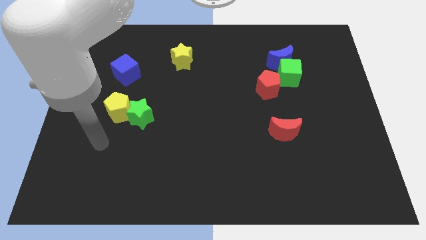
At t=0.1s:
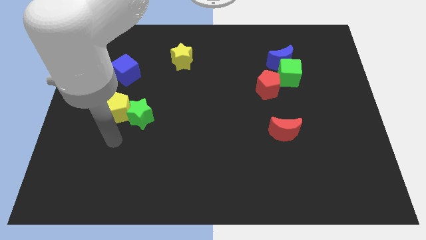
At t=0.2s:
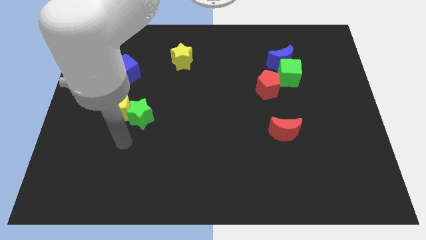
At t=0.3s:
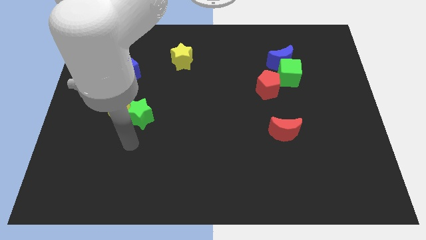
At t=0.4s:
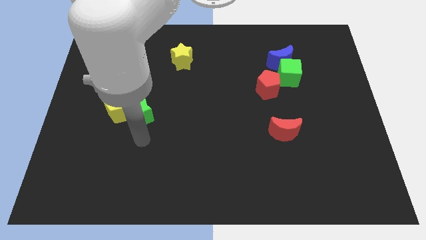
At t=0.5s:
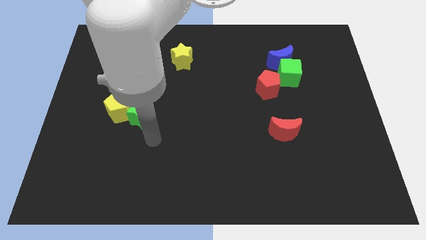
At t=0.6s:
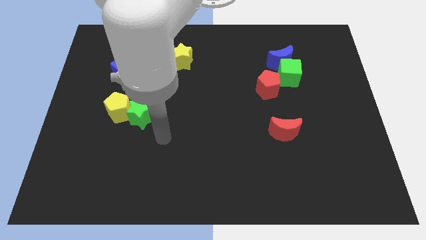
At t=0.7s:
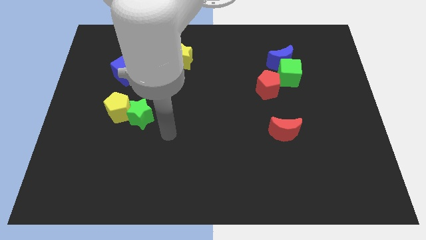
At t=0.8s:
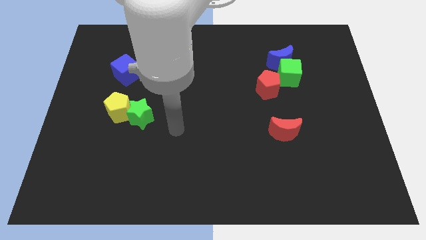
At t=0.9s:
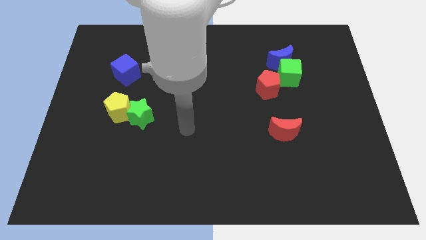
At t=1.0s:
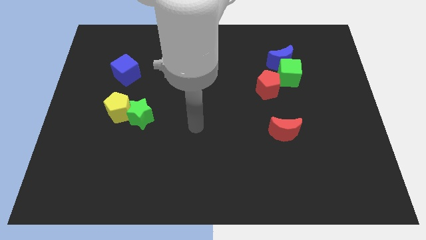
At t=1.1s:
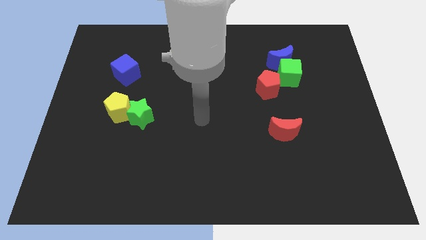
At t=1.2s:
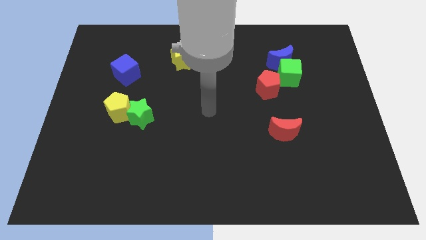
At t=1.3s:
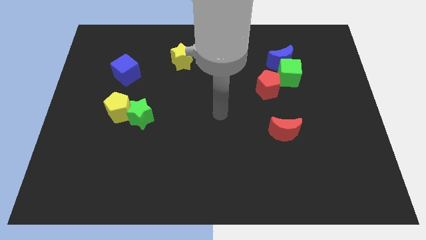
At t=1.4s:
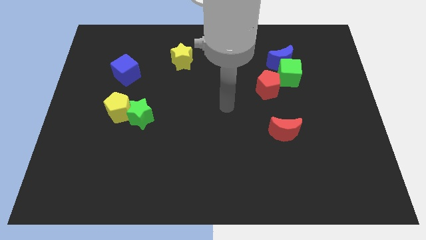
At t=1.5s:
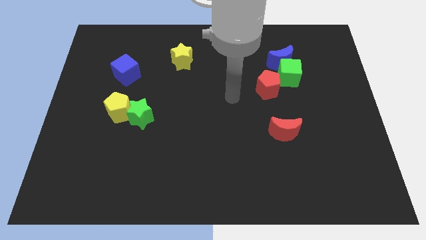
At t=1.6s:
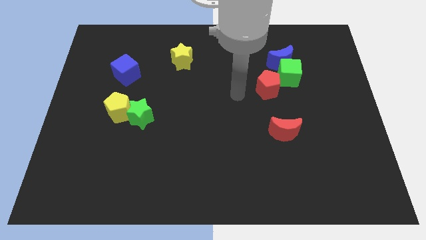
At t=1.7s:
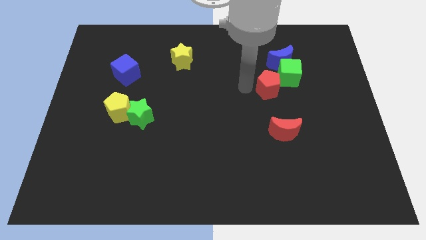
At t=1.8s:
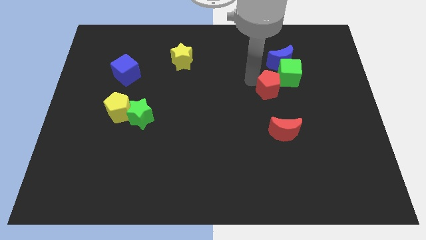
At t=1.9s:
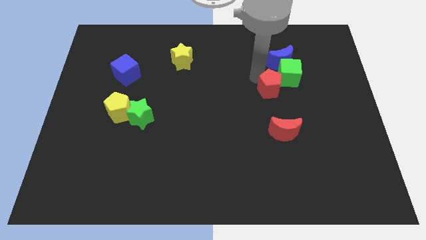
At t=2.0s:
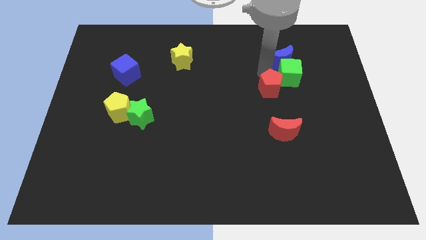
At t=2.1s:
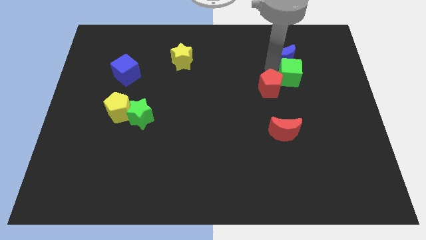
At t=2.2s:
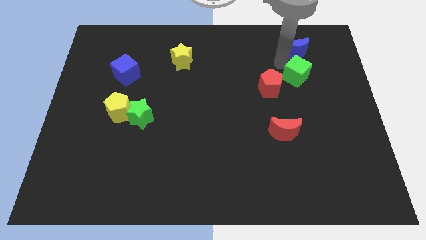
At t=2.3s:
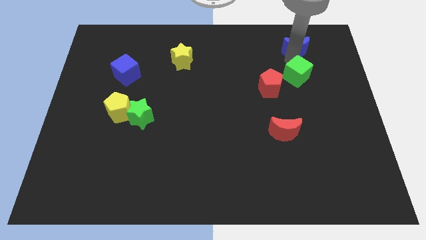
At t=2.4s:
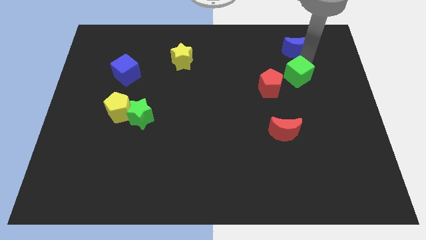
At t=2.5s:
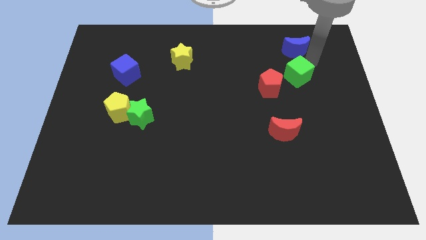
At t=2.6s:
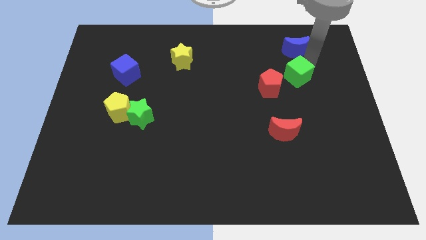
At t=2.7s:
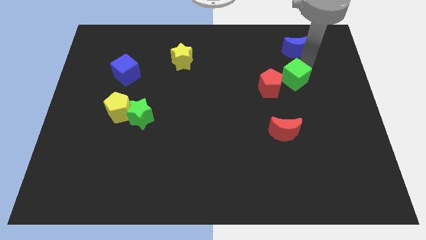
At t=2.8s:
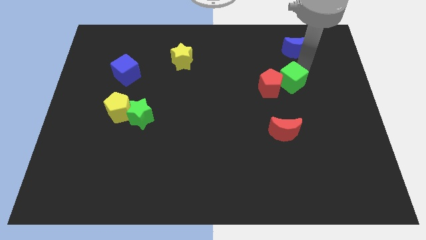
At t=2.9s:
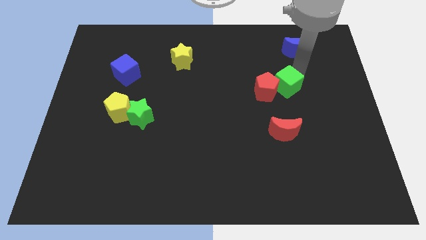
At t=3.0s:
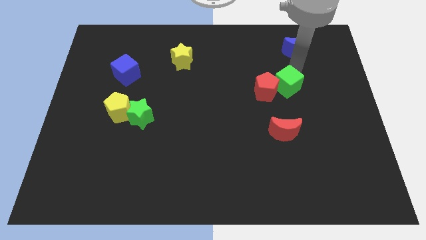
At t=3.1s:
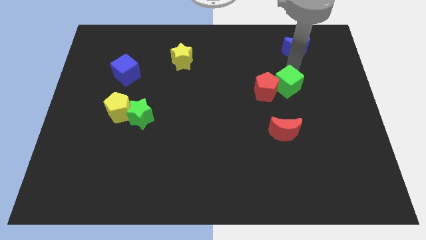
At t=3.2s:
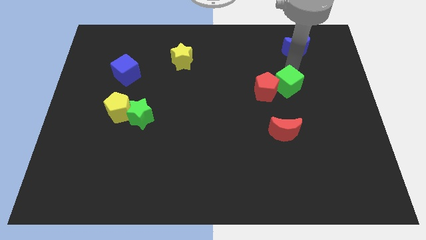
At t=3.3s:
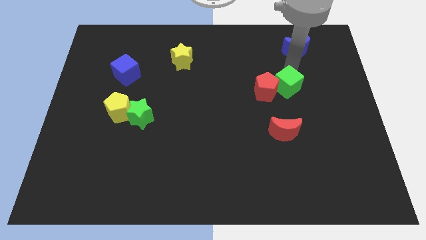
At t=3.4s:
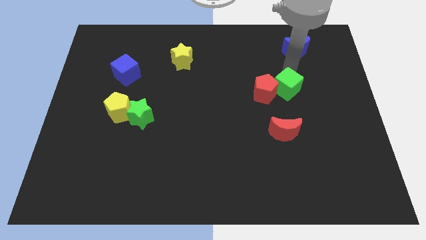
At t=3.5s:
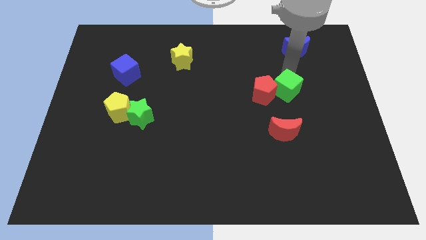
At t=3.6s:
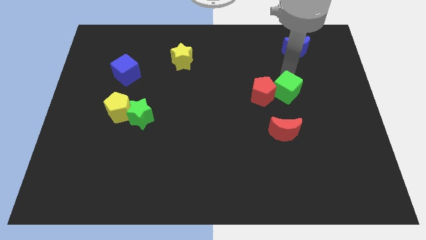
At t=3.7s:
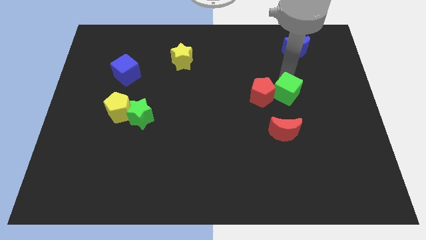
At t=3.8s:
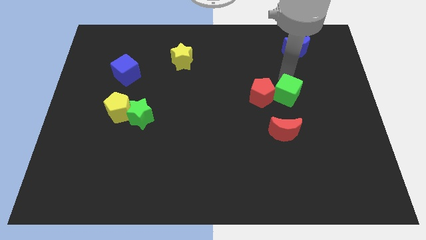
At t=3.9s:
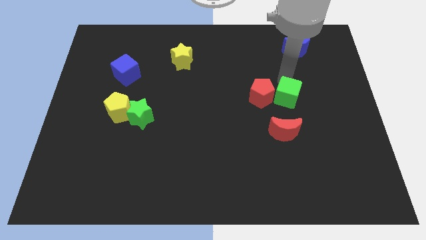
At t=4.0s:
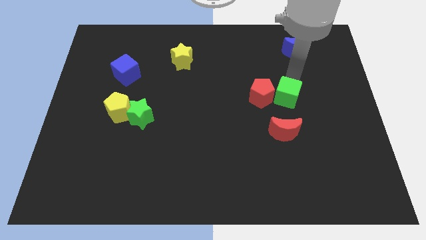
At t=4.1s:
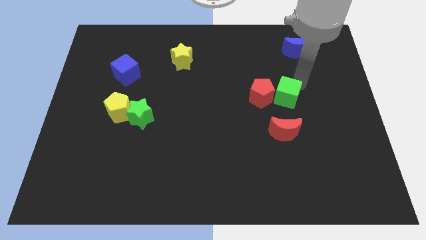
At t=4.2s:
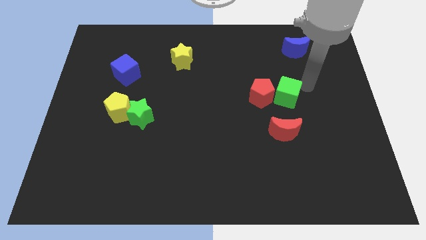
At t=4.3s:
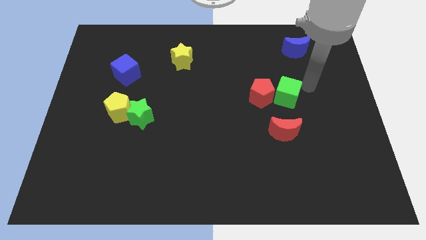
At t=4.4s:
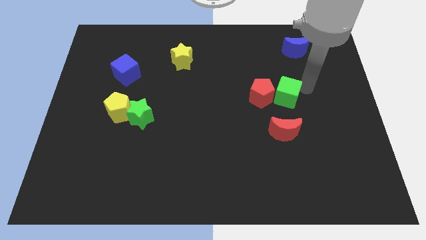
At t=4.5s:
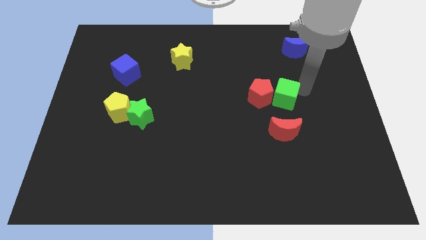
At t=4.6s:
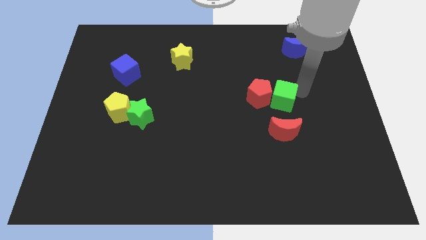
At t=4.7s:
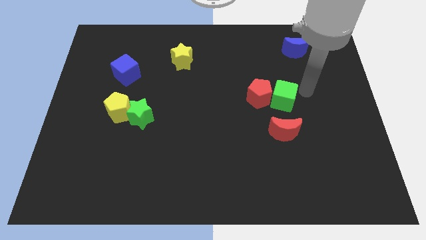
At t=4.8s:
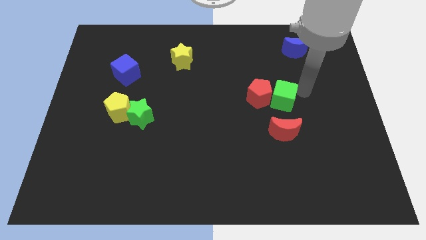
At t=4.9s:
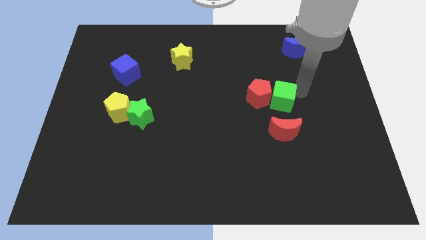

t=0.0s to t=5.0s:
push the green cube somewhat down and to the left diagonally

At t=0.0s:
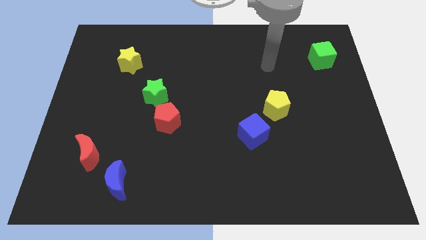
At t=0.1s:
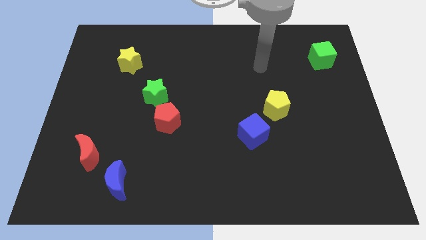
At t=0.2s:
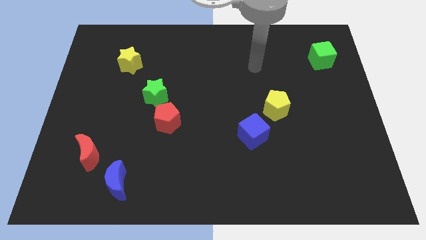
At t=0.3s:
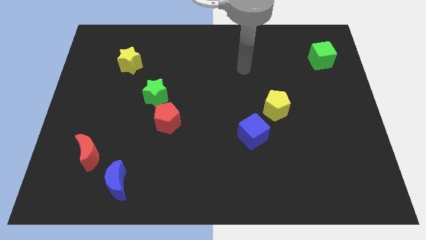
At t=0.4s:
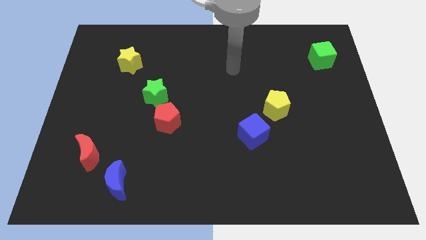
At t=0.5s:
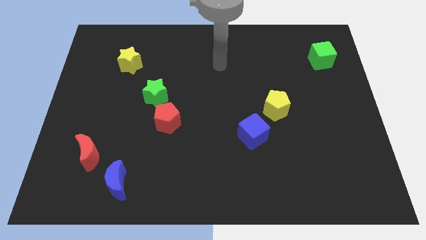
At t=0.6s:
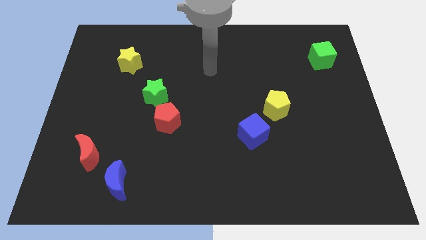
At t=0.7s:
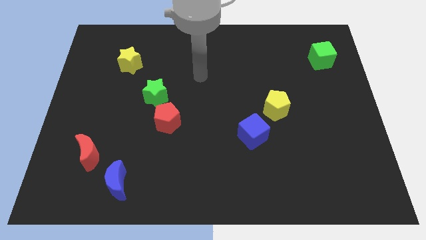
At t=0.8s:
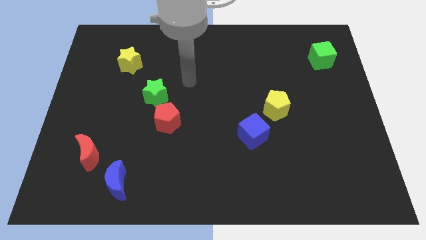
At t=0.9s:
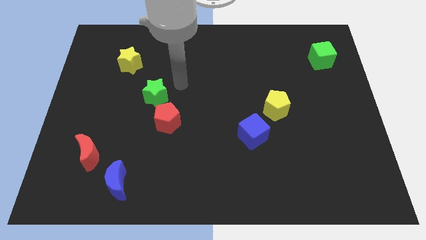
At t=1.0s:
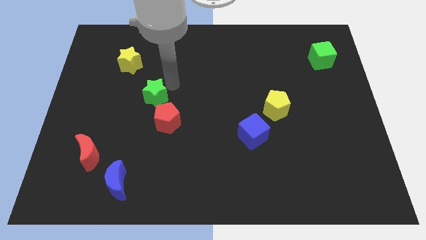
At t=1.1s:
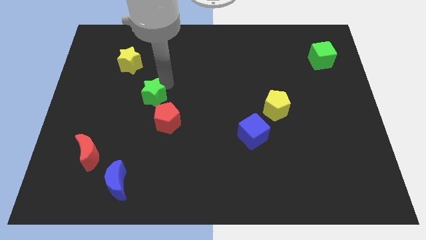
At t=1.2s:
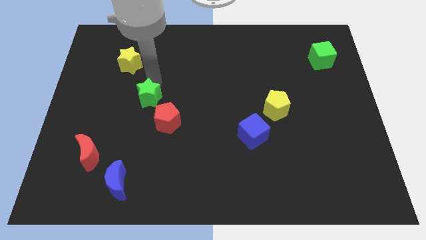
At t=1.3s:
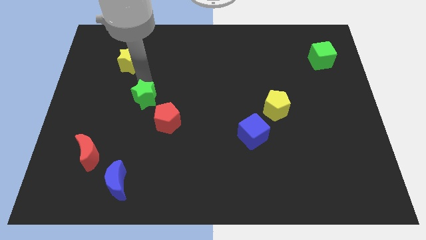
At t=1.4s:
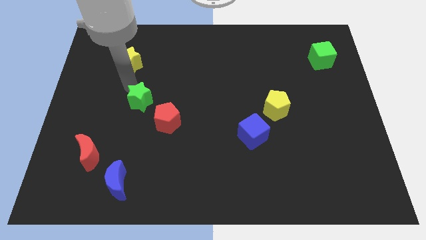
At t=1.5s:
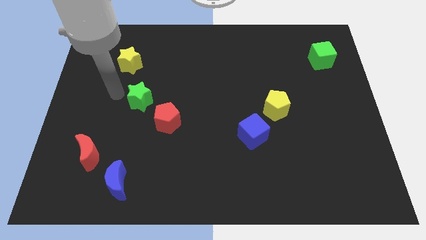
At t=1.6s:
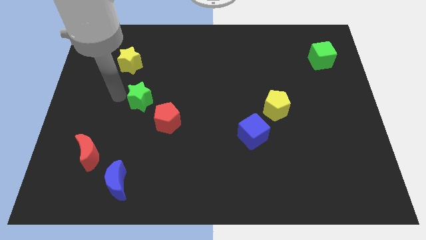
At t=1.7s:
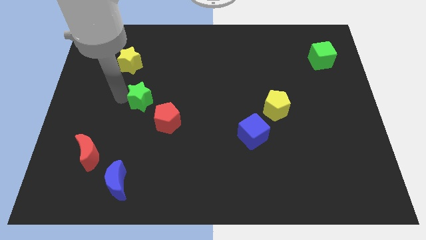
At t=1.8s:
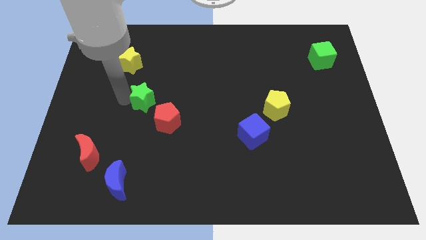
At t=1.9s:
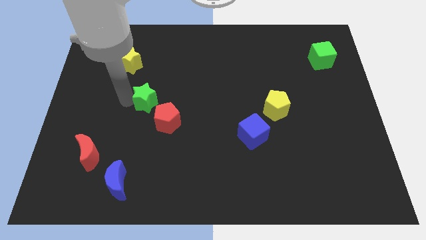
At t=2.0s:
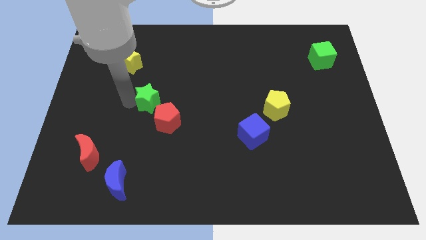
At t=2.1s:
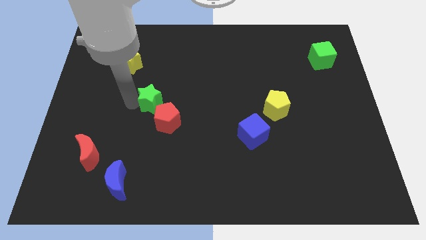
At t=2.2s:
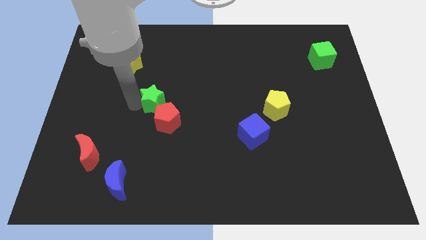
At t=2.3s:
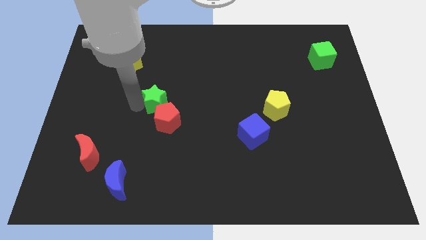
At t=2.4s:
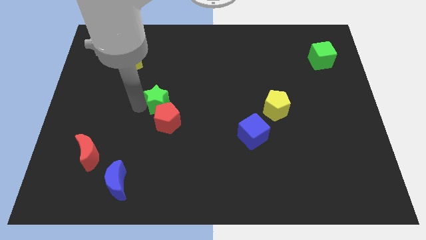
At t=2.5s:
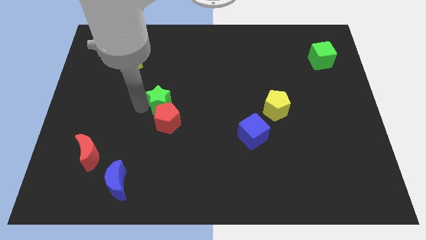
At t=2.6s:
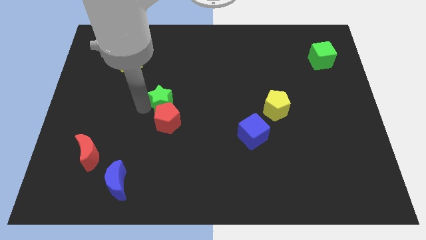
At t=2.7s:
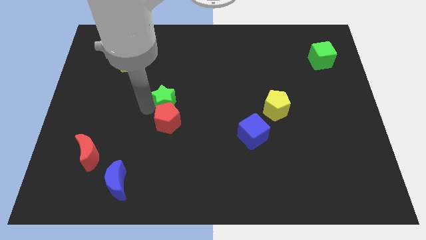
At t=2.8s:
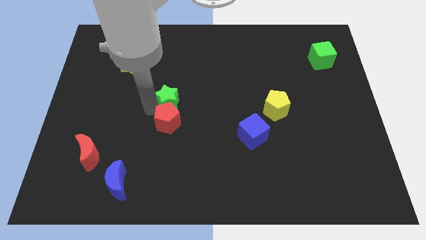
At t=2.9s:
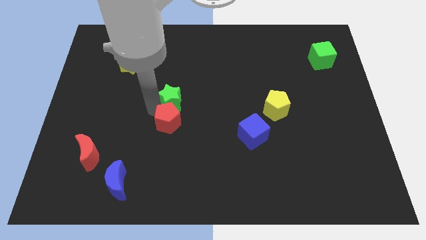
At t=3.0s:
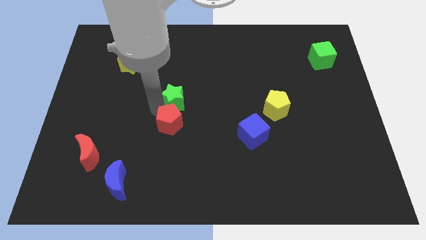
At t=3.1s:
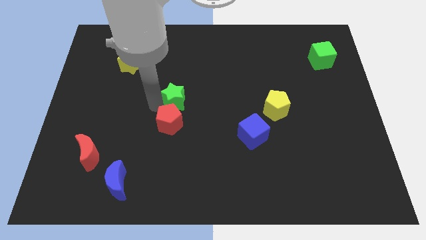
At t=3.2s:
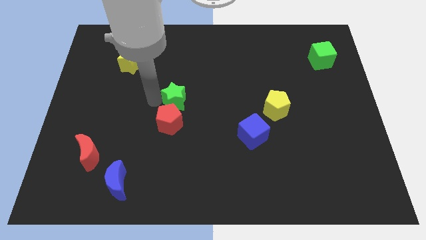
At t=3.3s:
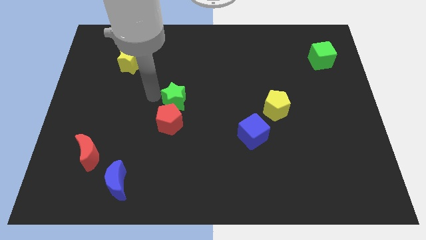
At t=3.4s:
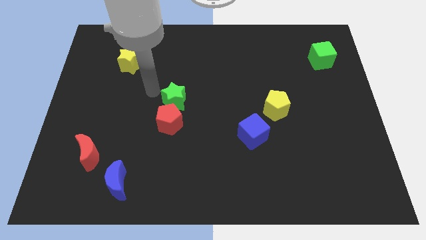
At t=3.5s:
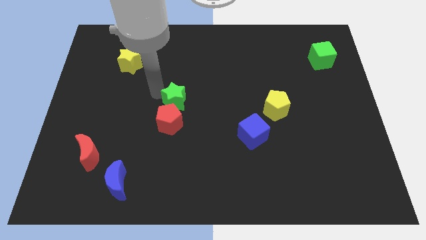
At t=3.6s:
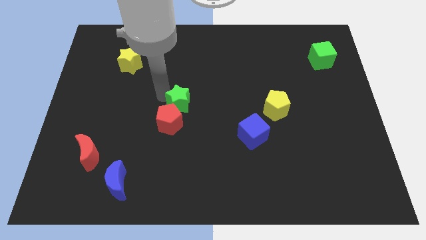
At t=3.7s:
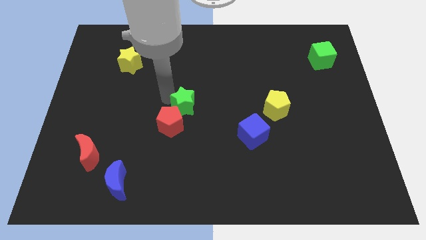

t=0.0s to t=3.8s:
push the green star down and to the right diagonally a little bit
